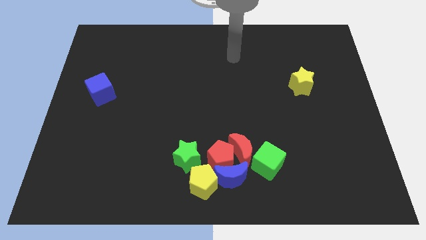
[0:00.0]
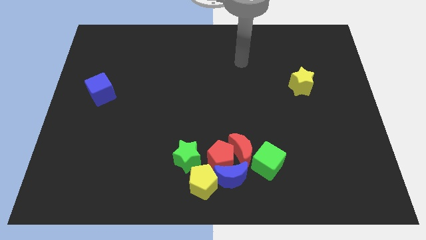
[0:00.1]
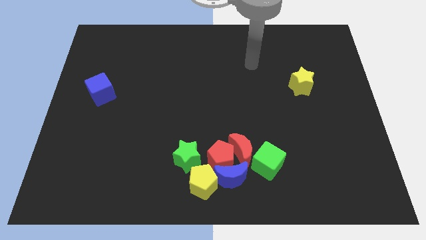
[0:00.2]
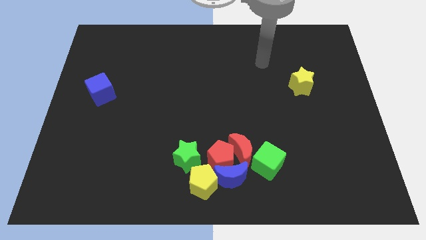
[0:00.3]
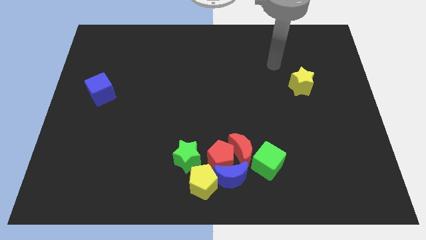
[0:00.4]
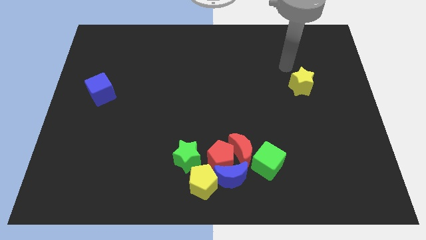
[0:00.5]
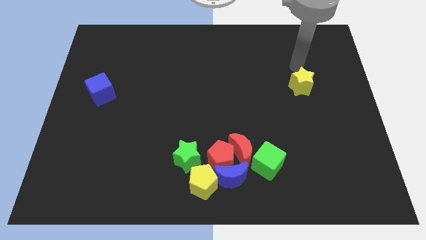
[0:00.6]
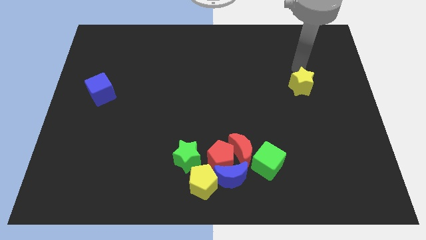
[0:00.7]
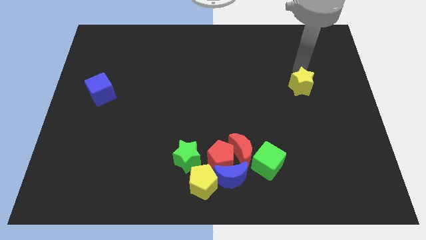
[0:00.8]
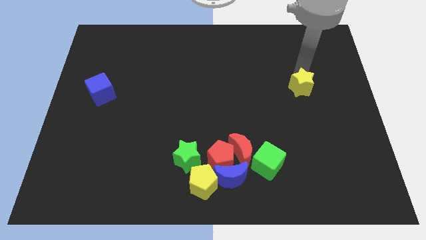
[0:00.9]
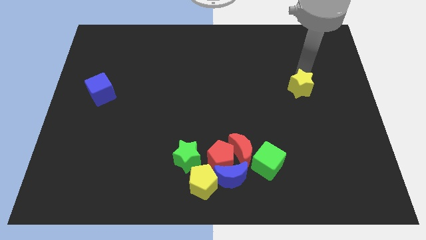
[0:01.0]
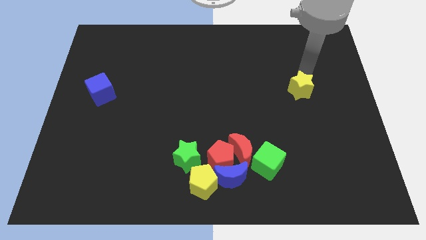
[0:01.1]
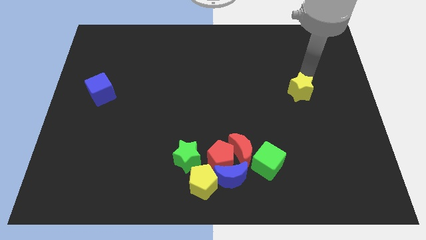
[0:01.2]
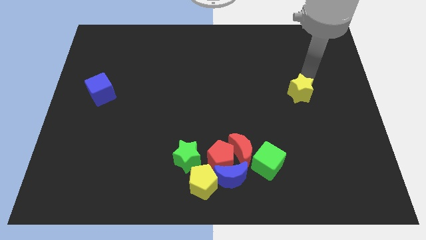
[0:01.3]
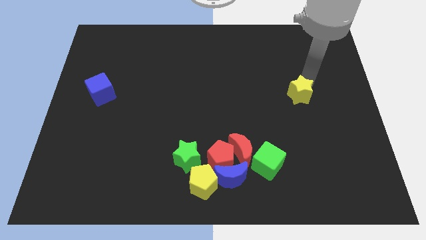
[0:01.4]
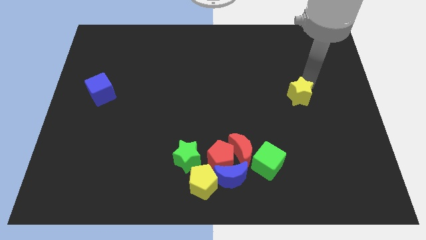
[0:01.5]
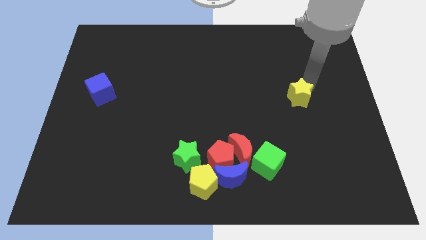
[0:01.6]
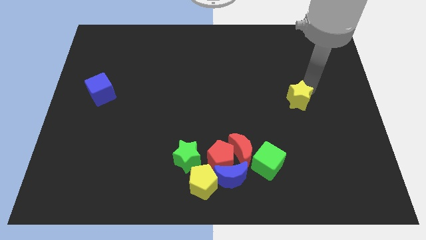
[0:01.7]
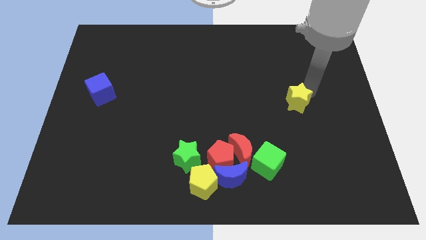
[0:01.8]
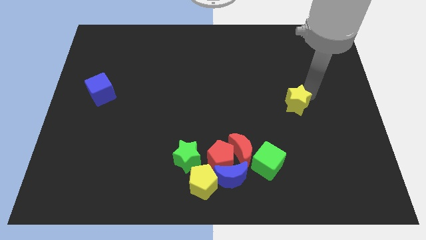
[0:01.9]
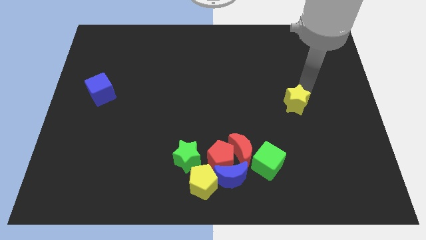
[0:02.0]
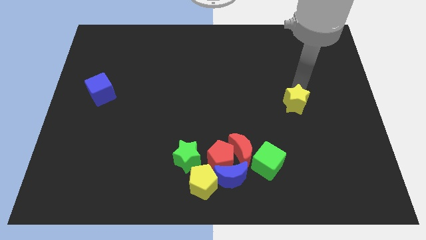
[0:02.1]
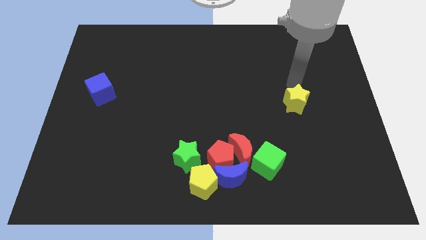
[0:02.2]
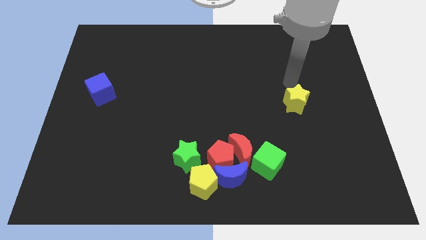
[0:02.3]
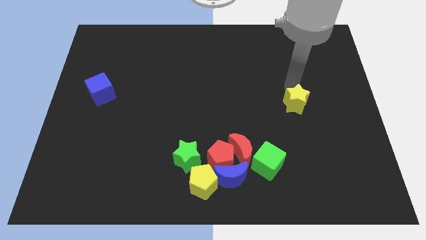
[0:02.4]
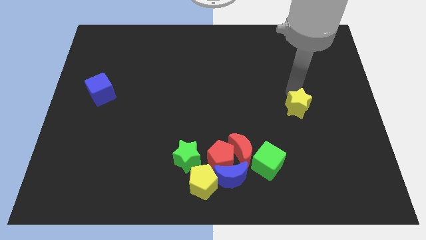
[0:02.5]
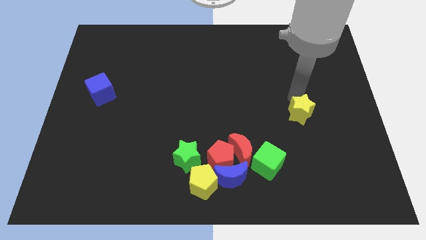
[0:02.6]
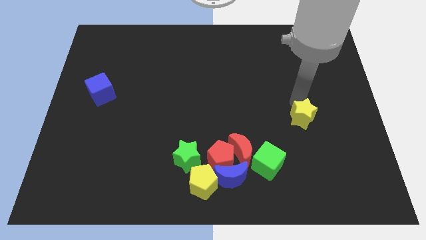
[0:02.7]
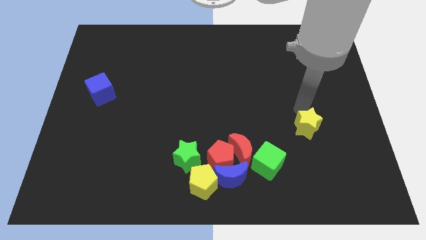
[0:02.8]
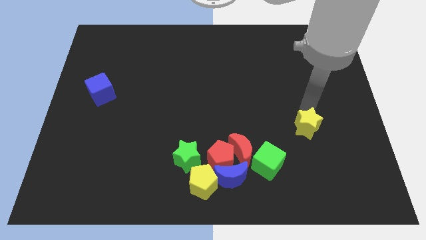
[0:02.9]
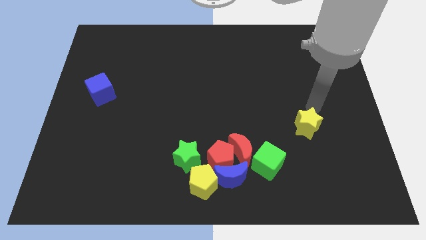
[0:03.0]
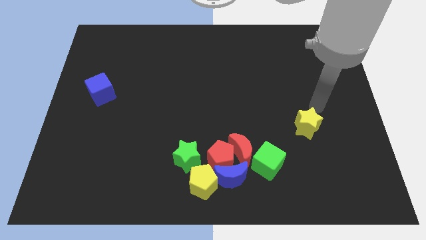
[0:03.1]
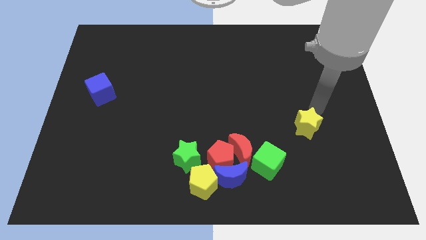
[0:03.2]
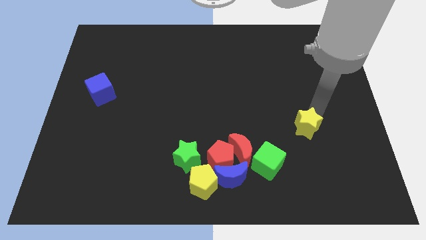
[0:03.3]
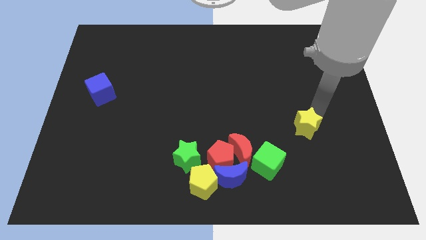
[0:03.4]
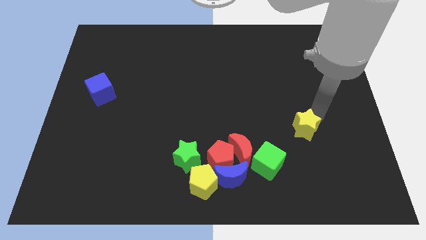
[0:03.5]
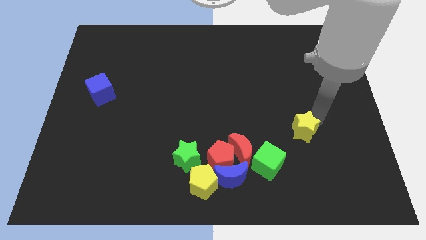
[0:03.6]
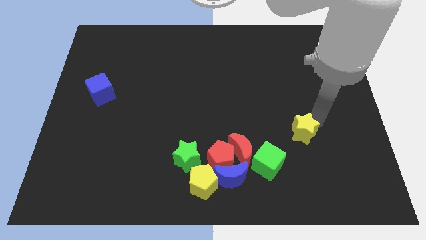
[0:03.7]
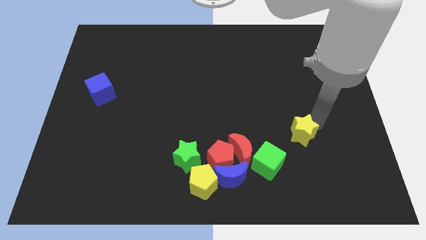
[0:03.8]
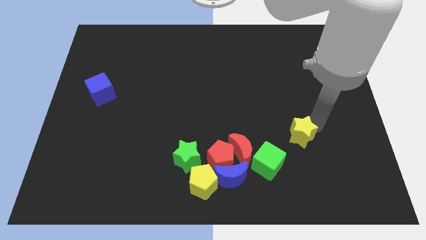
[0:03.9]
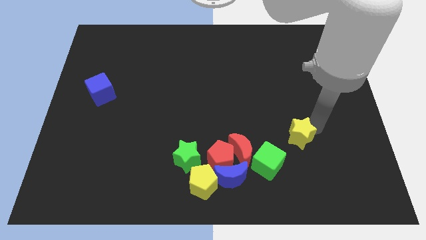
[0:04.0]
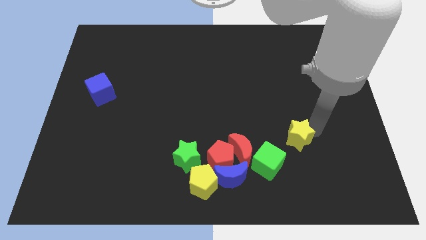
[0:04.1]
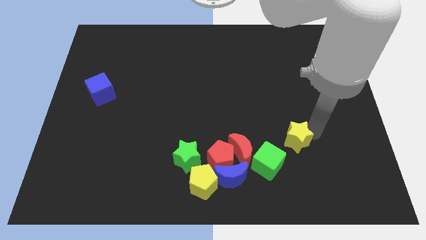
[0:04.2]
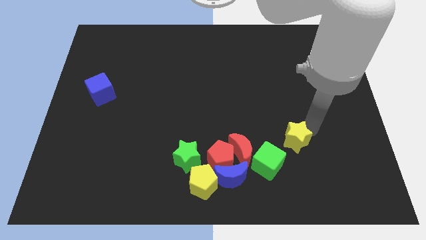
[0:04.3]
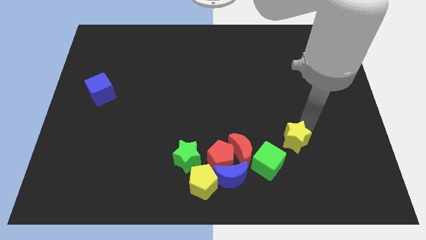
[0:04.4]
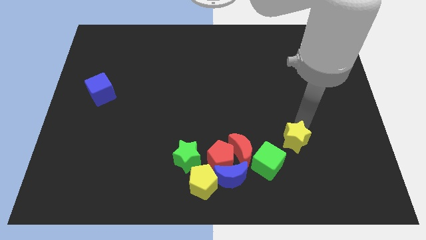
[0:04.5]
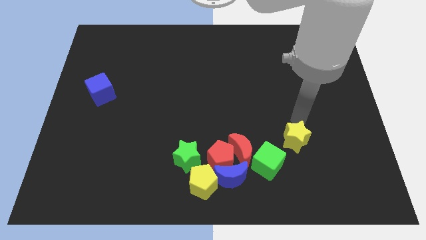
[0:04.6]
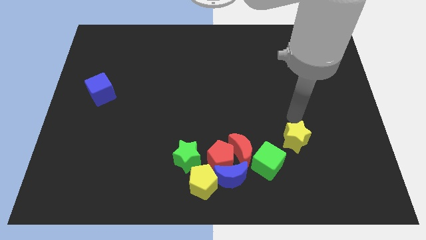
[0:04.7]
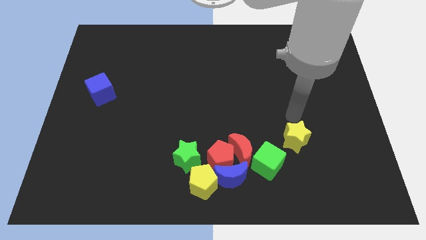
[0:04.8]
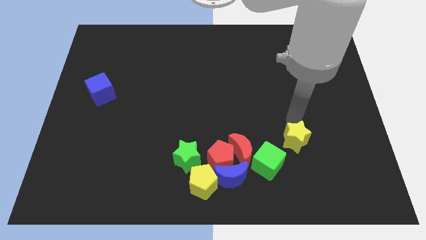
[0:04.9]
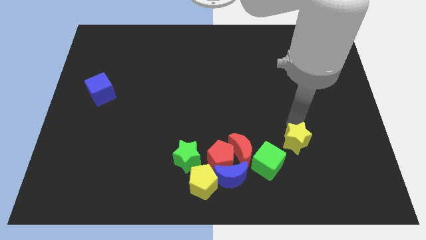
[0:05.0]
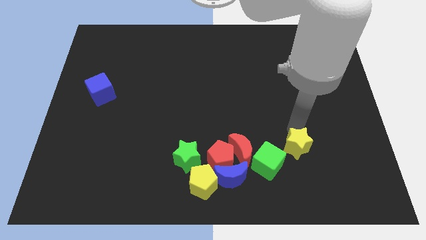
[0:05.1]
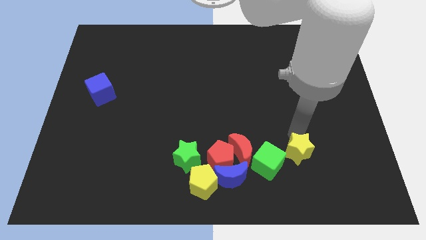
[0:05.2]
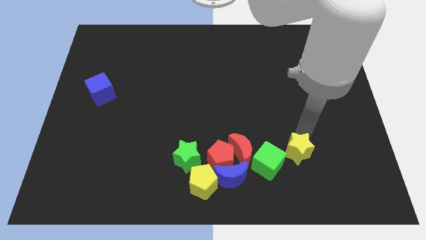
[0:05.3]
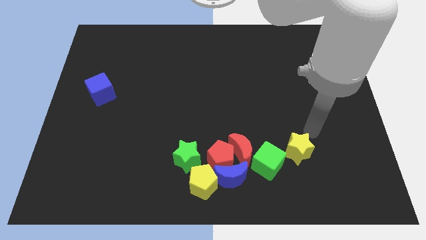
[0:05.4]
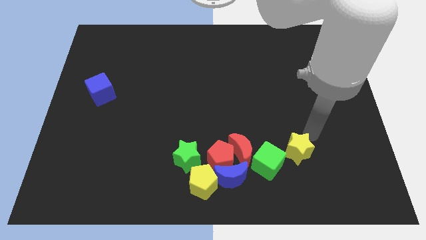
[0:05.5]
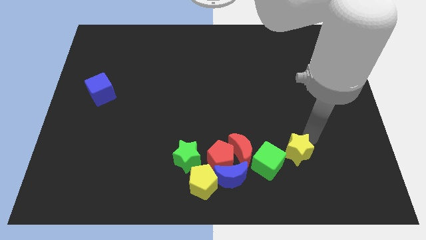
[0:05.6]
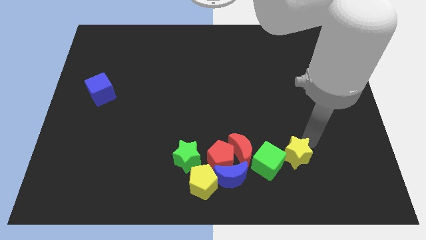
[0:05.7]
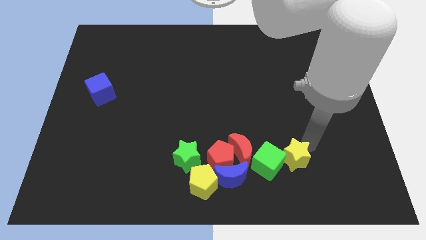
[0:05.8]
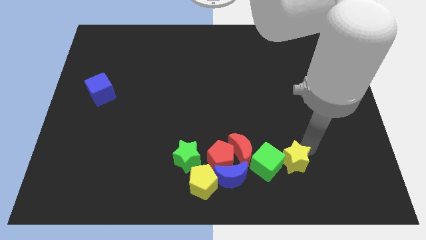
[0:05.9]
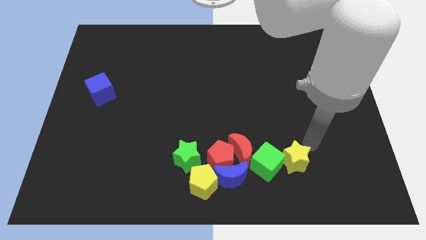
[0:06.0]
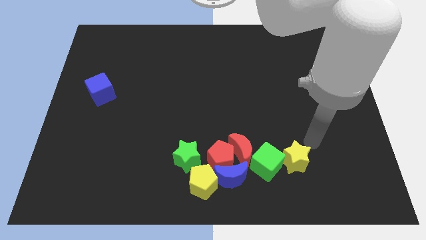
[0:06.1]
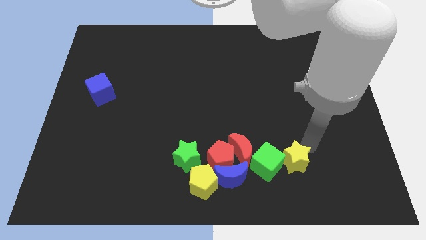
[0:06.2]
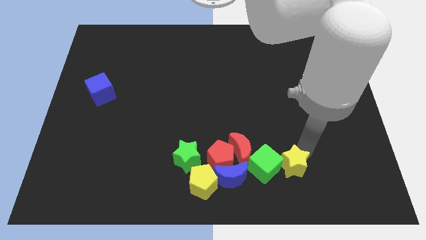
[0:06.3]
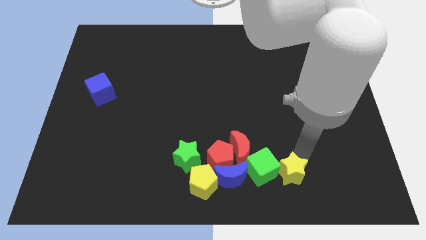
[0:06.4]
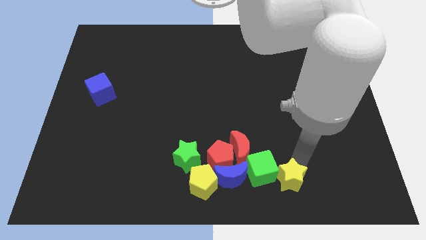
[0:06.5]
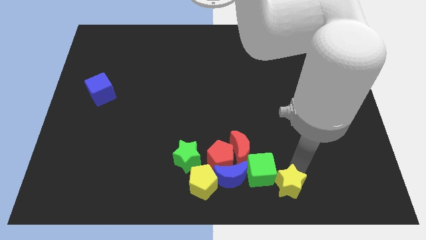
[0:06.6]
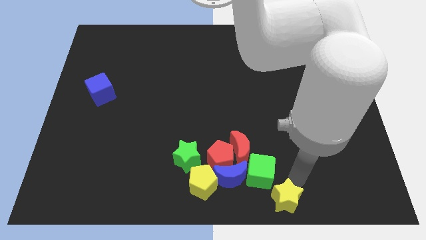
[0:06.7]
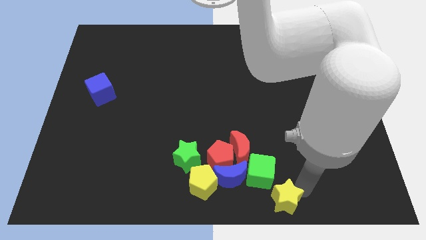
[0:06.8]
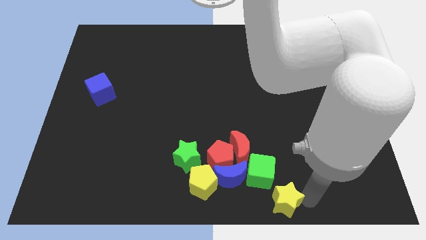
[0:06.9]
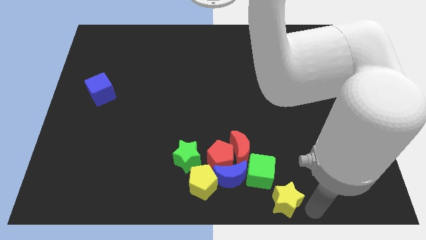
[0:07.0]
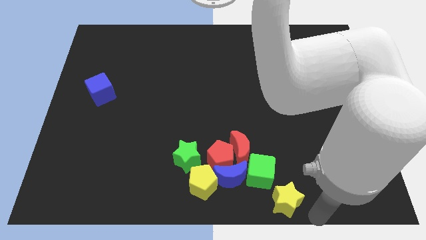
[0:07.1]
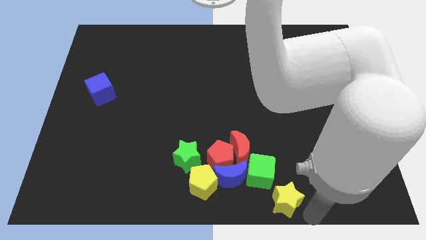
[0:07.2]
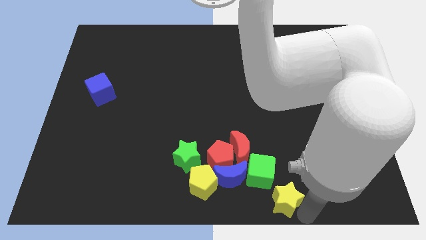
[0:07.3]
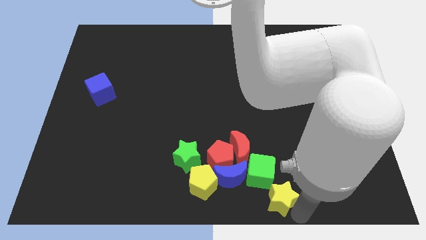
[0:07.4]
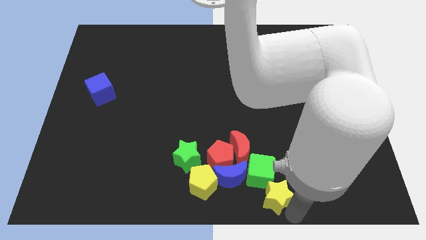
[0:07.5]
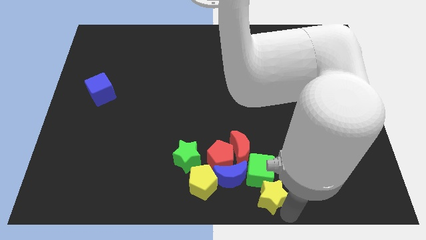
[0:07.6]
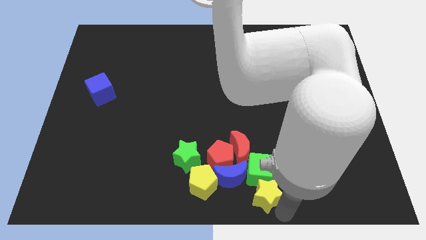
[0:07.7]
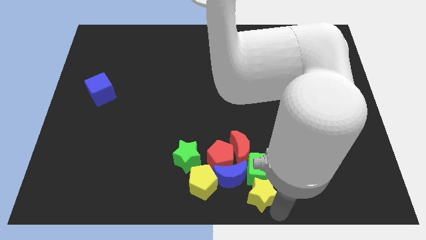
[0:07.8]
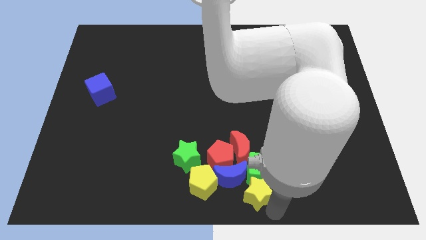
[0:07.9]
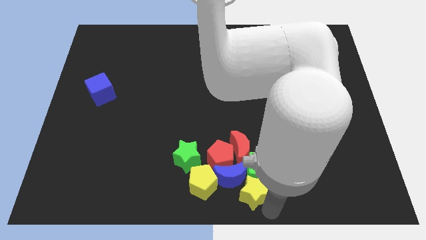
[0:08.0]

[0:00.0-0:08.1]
move the yellow star next to the blue moon
